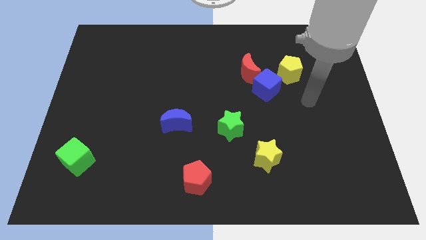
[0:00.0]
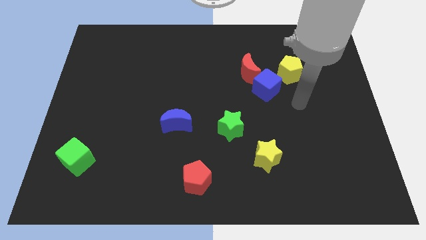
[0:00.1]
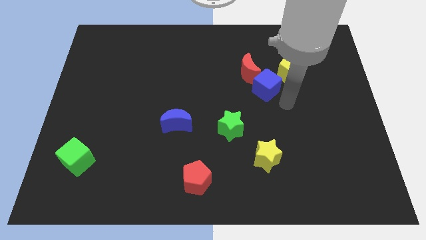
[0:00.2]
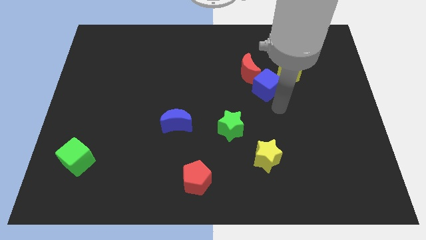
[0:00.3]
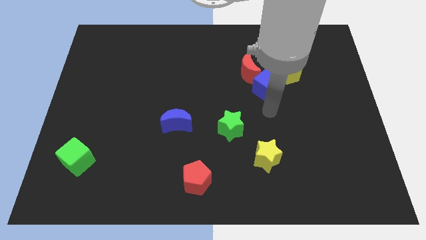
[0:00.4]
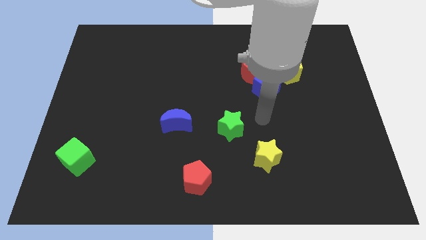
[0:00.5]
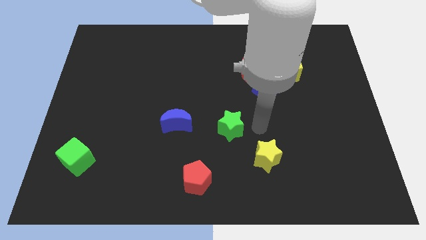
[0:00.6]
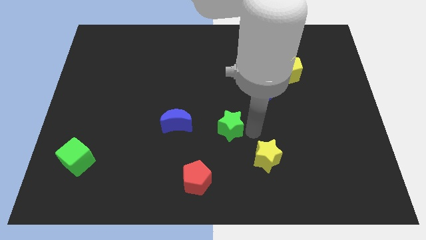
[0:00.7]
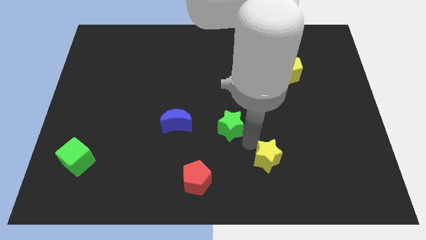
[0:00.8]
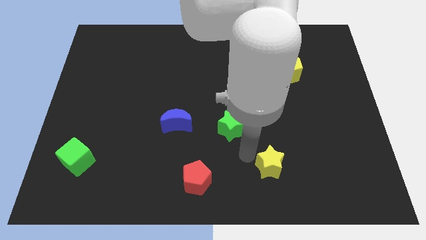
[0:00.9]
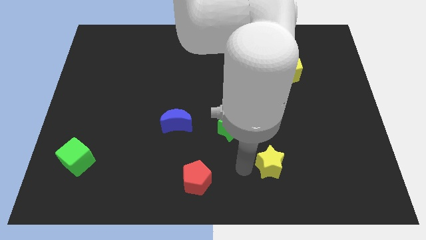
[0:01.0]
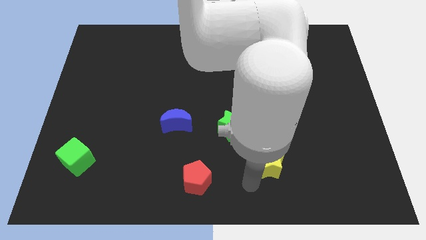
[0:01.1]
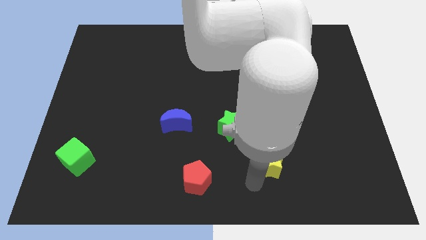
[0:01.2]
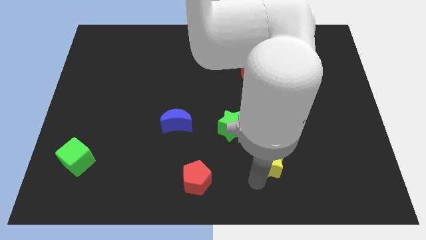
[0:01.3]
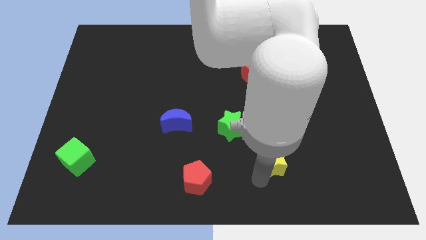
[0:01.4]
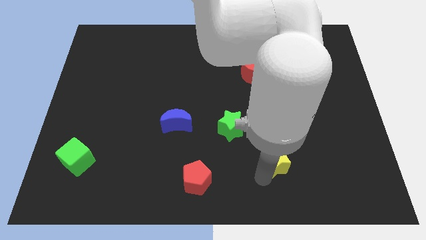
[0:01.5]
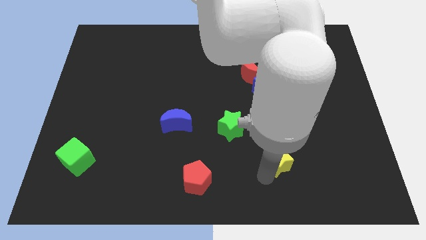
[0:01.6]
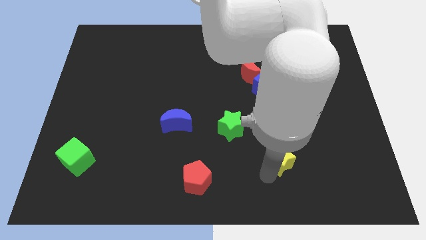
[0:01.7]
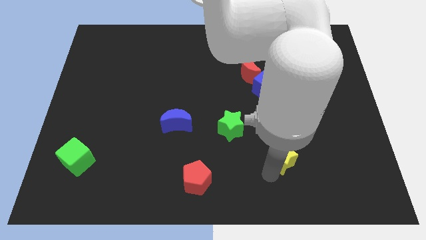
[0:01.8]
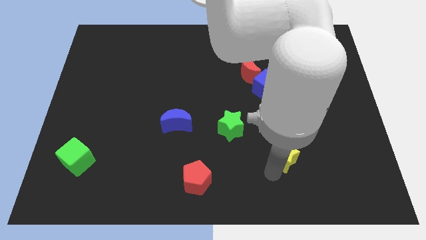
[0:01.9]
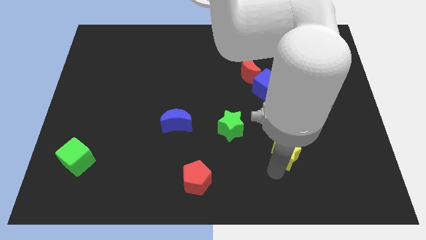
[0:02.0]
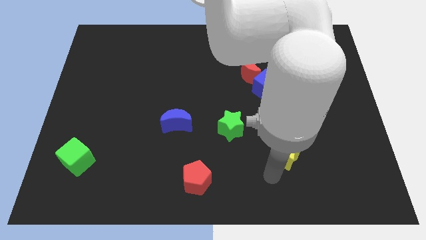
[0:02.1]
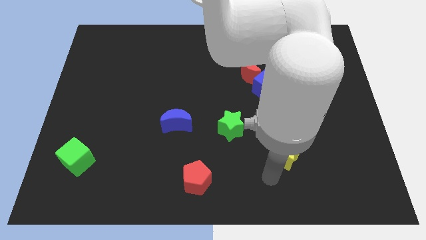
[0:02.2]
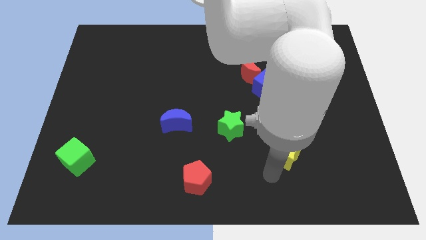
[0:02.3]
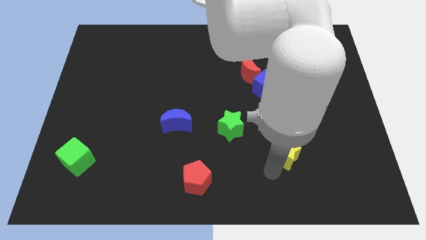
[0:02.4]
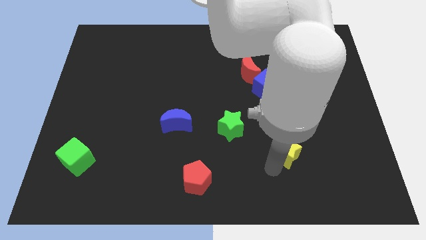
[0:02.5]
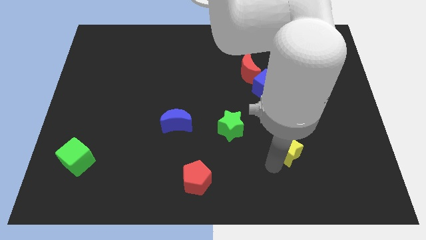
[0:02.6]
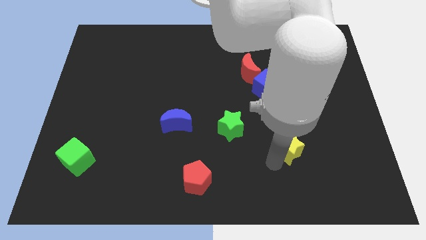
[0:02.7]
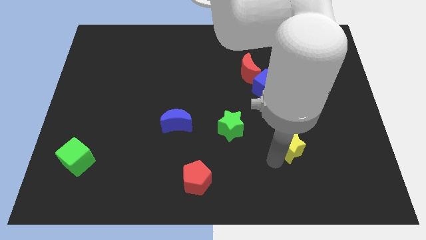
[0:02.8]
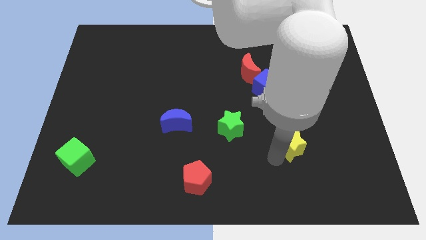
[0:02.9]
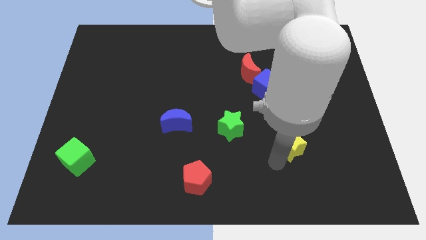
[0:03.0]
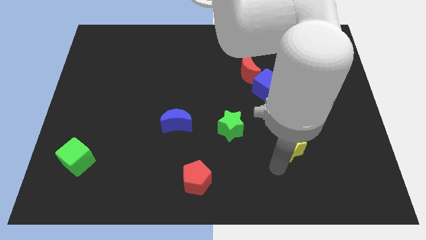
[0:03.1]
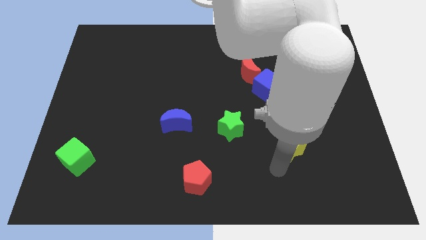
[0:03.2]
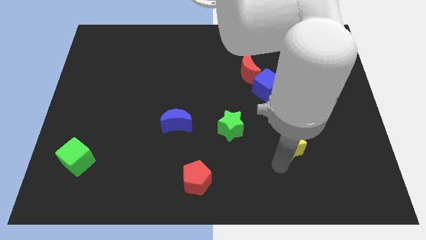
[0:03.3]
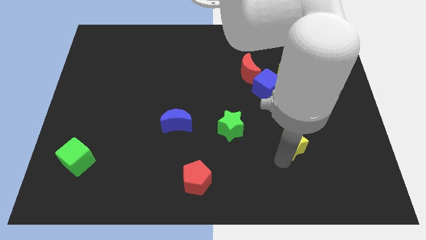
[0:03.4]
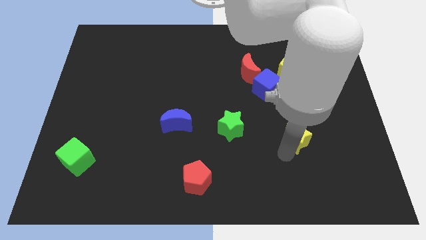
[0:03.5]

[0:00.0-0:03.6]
move the yellow star diagonally upwards and right a little bit

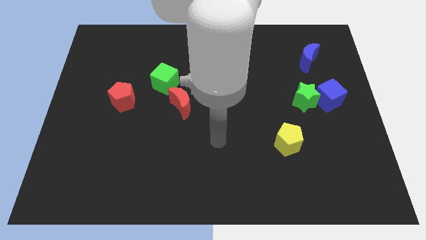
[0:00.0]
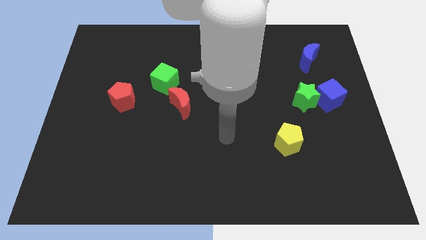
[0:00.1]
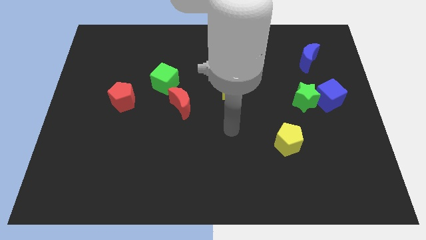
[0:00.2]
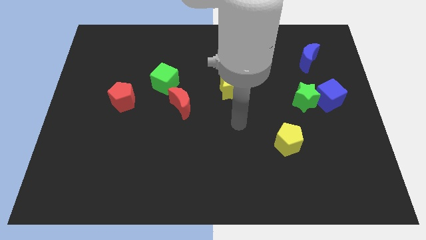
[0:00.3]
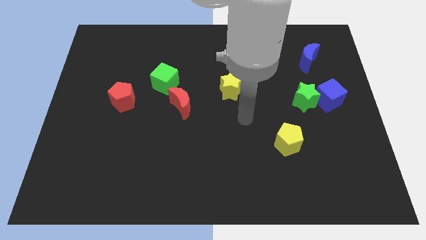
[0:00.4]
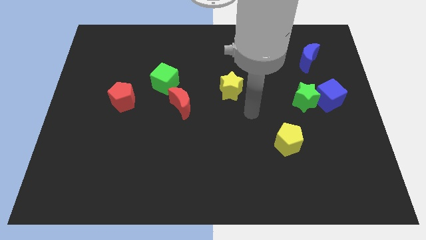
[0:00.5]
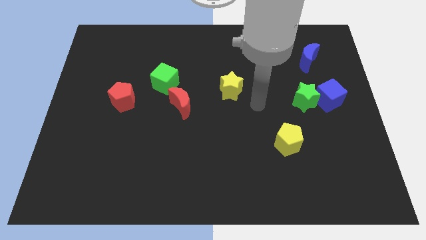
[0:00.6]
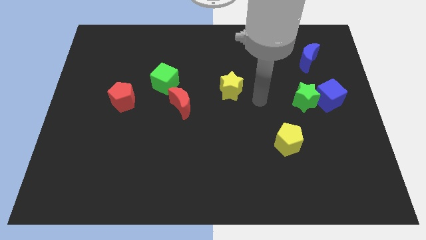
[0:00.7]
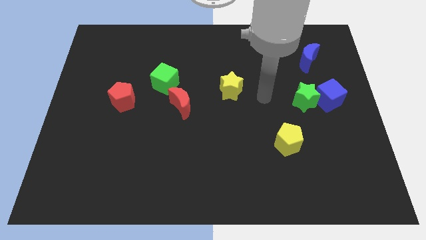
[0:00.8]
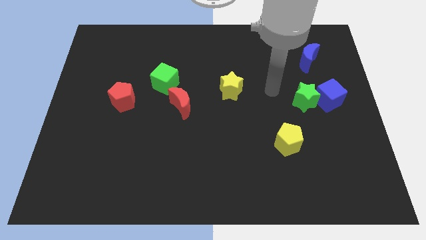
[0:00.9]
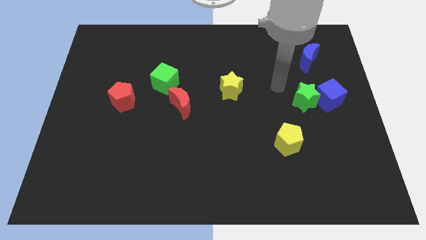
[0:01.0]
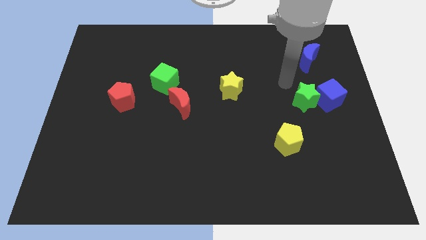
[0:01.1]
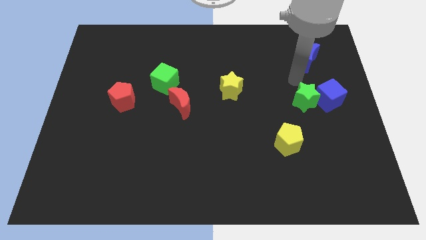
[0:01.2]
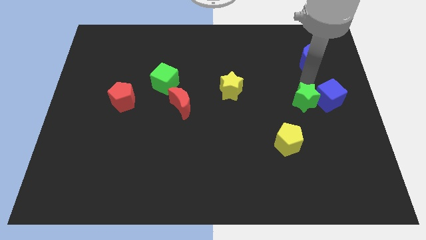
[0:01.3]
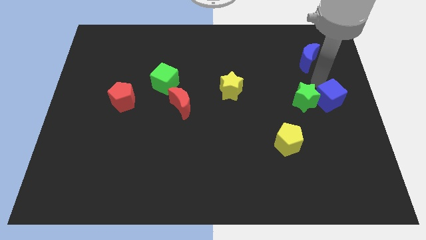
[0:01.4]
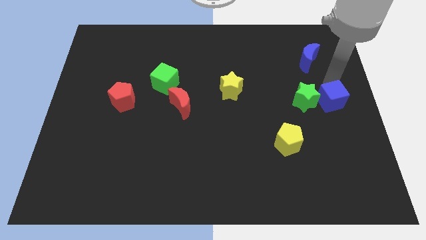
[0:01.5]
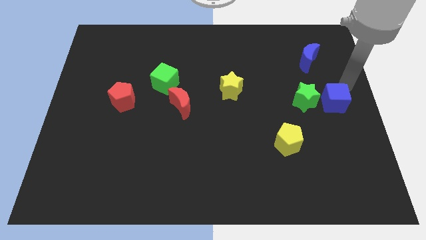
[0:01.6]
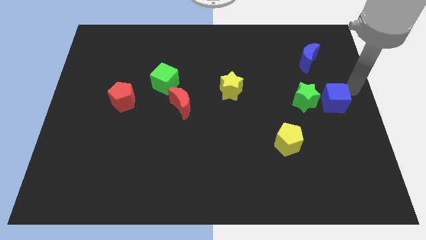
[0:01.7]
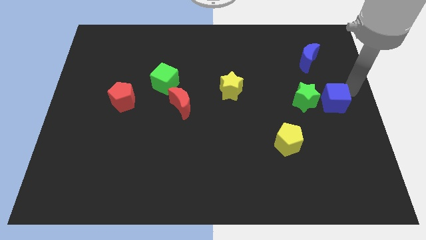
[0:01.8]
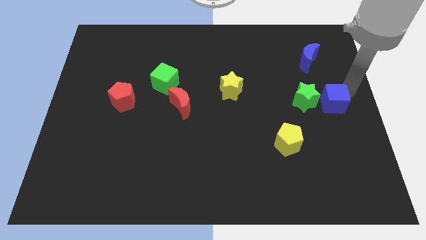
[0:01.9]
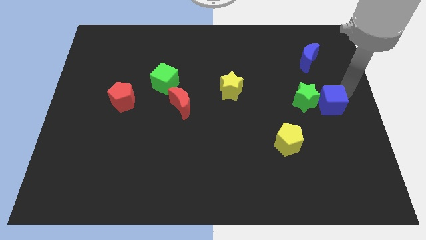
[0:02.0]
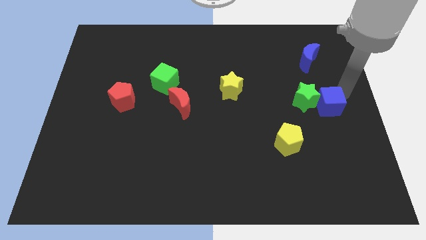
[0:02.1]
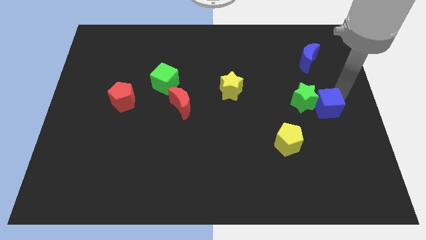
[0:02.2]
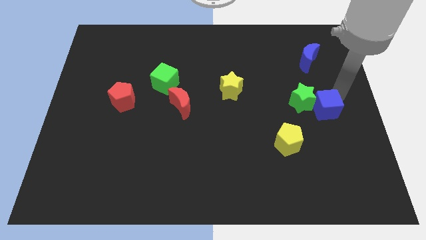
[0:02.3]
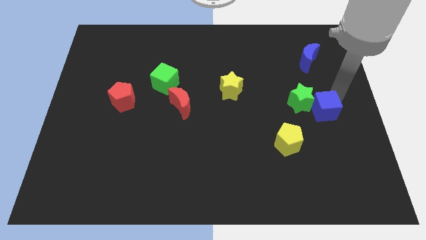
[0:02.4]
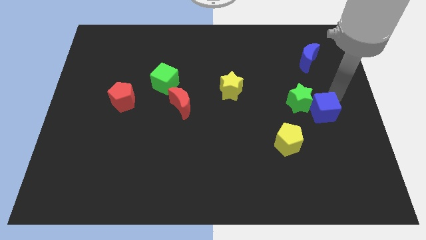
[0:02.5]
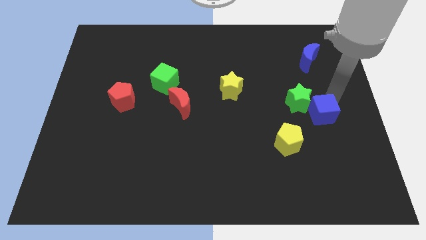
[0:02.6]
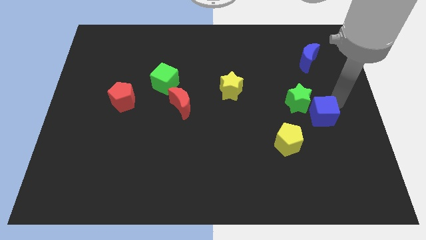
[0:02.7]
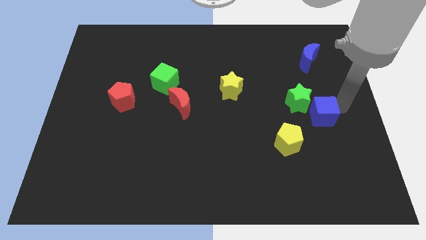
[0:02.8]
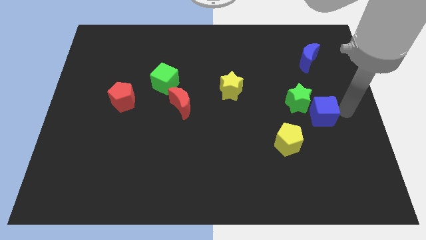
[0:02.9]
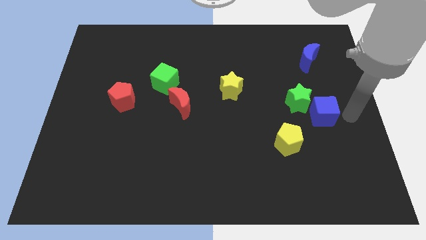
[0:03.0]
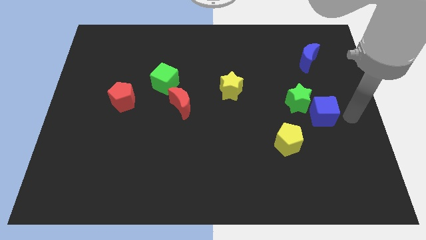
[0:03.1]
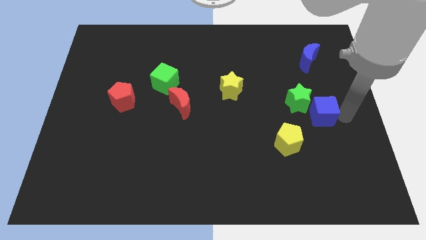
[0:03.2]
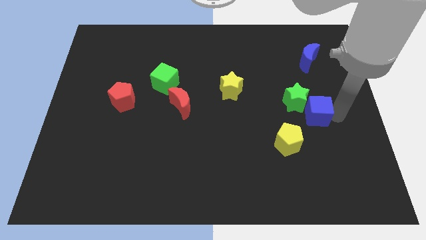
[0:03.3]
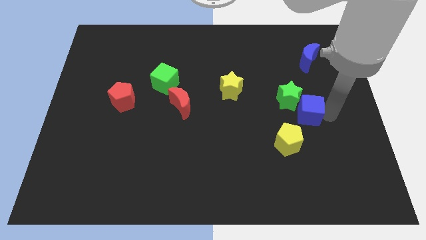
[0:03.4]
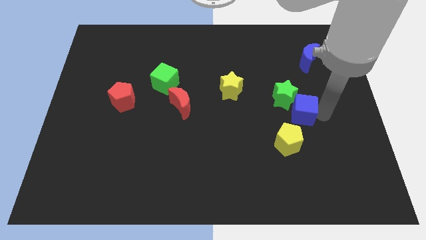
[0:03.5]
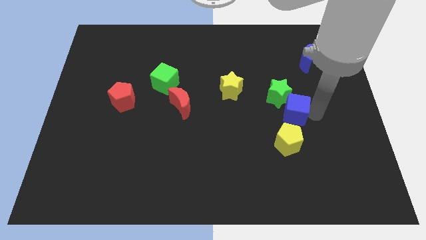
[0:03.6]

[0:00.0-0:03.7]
move the blue cube somewhat to the left

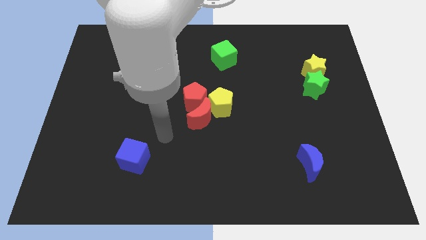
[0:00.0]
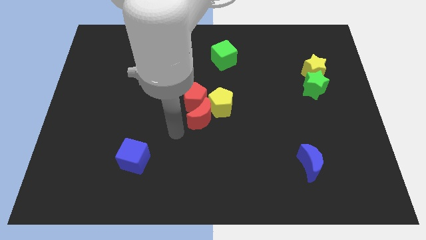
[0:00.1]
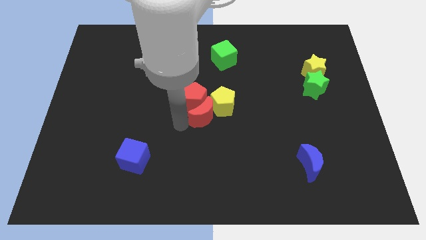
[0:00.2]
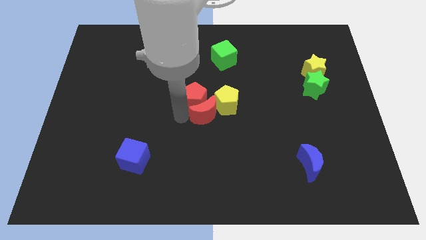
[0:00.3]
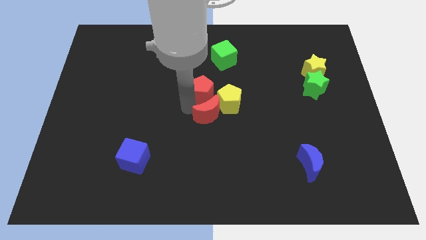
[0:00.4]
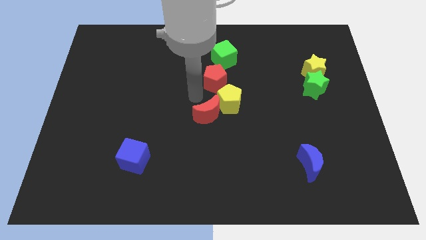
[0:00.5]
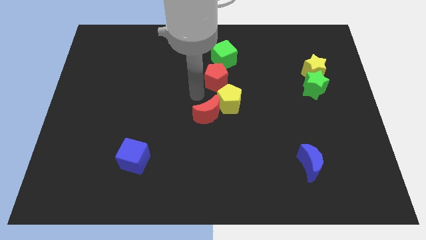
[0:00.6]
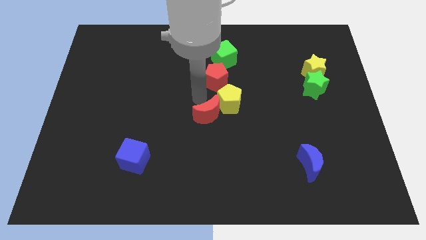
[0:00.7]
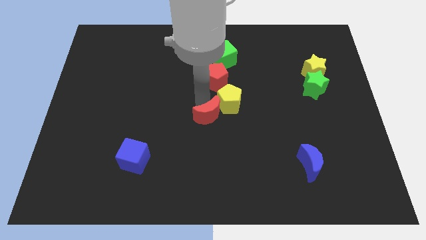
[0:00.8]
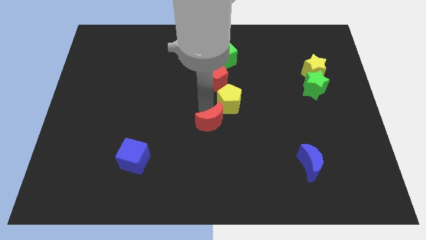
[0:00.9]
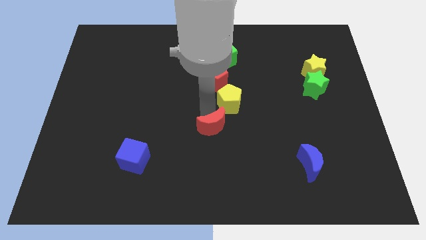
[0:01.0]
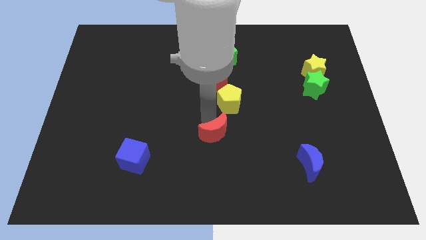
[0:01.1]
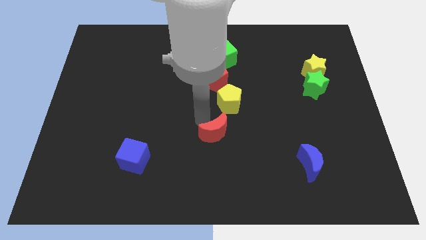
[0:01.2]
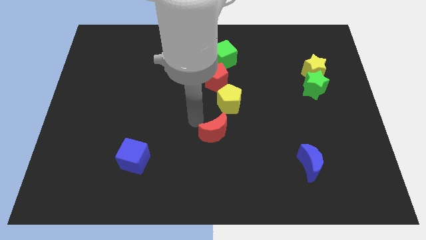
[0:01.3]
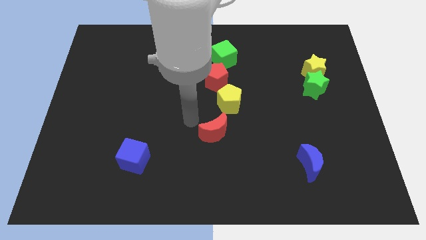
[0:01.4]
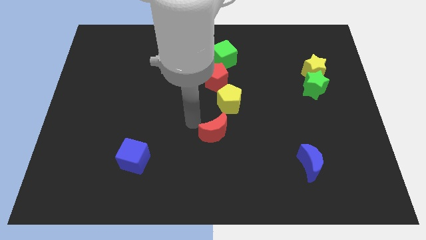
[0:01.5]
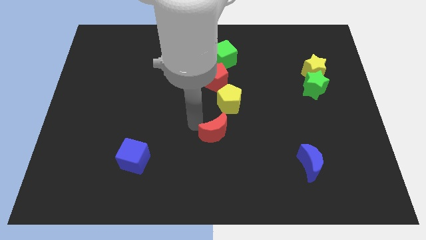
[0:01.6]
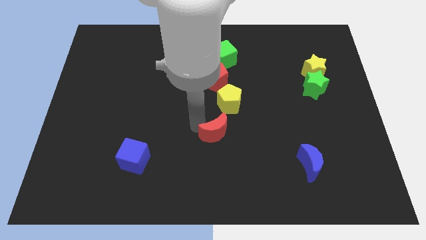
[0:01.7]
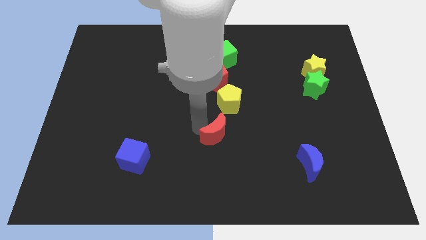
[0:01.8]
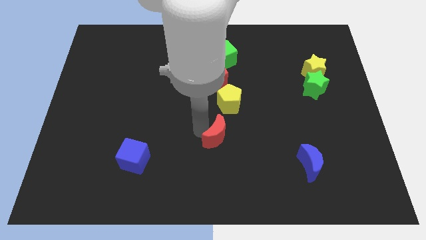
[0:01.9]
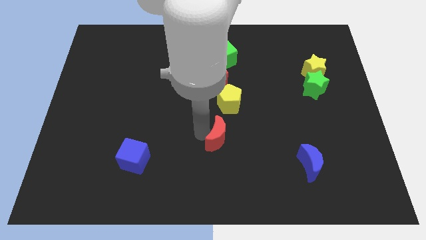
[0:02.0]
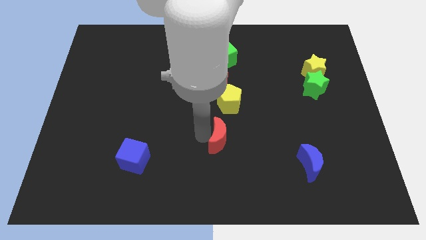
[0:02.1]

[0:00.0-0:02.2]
move the red moon a little diagonally downwards and right
